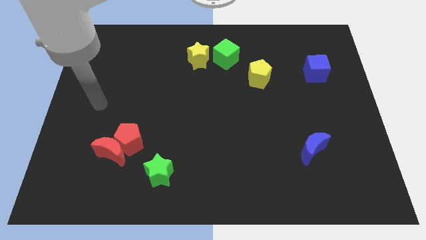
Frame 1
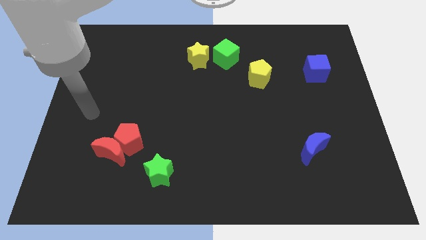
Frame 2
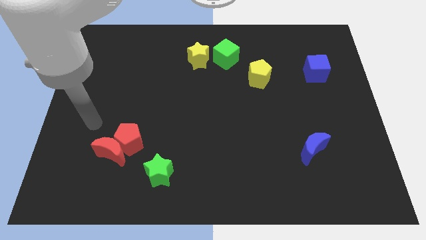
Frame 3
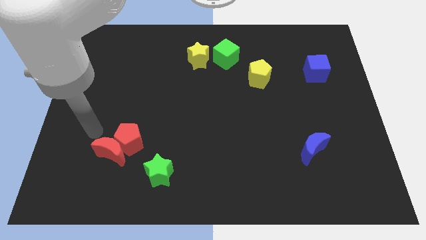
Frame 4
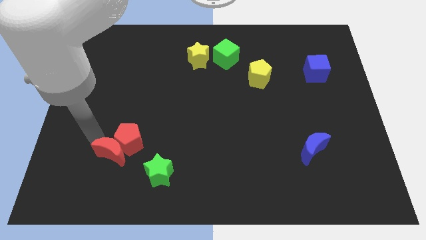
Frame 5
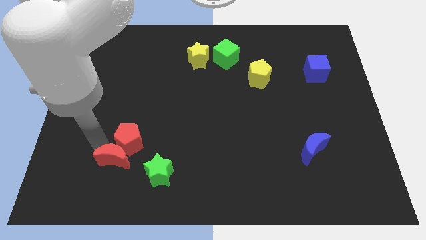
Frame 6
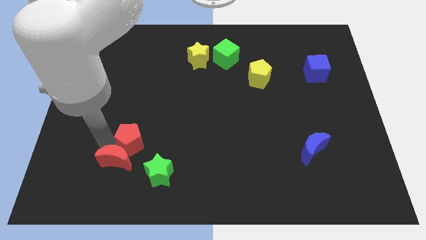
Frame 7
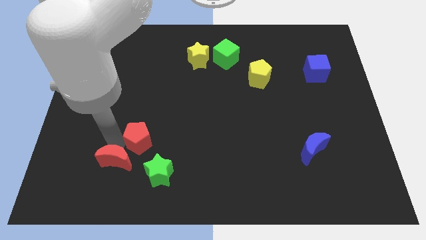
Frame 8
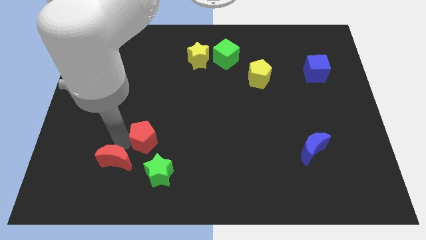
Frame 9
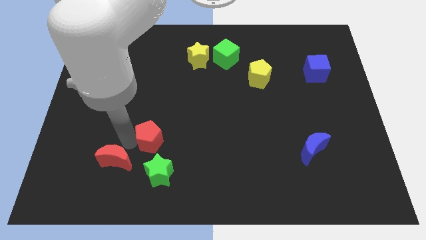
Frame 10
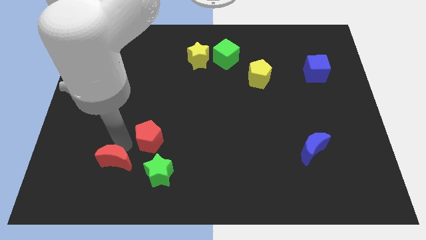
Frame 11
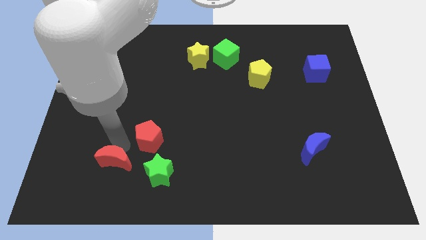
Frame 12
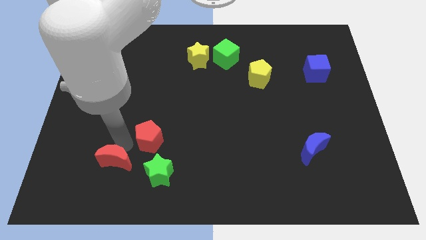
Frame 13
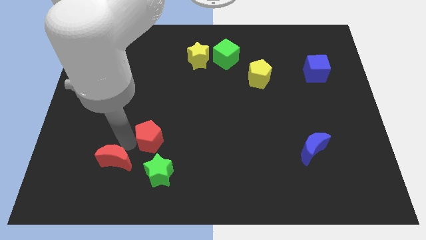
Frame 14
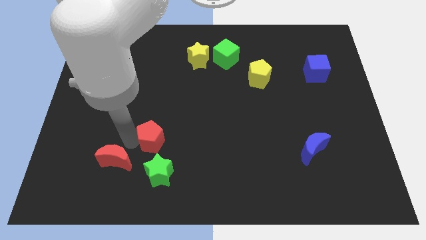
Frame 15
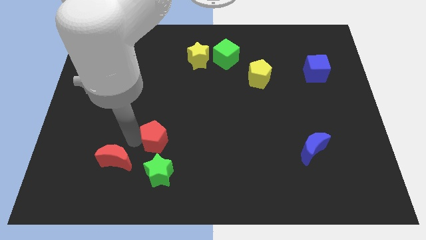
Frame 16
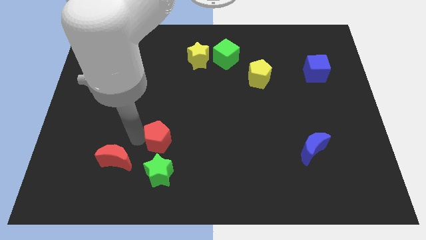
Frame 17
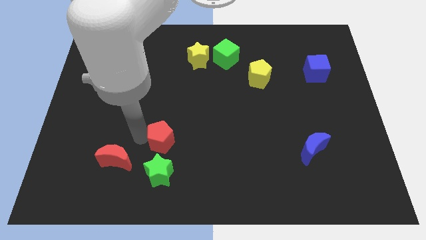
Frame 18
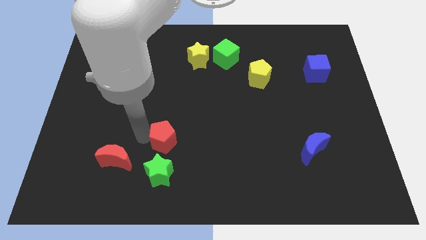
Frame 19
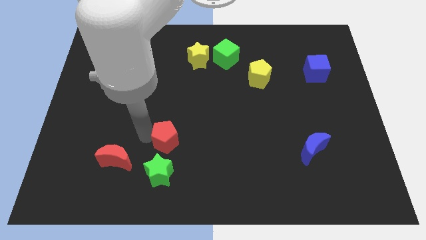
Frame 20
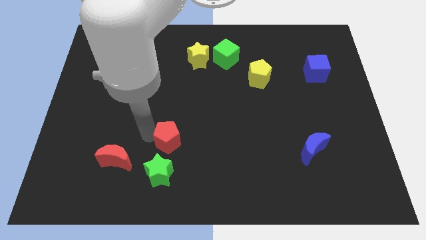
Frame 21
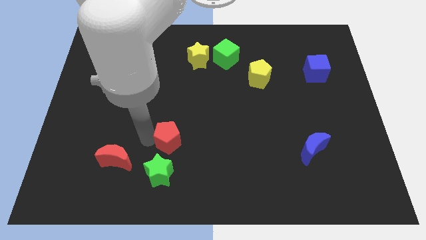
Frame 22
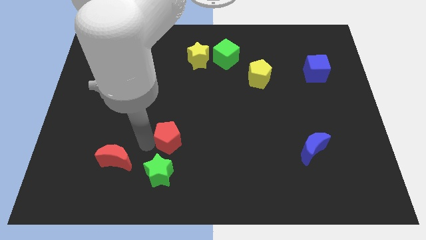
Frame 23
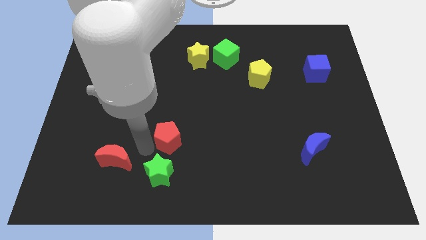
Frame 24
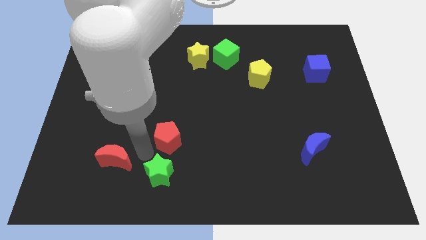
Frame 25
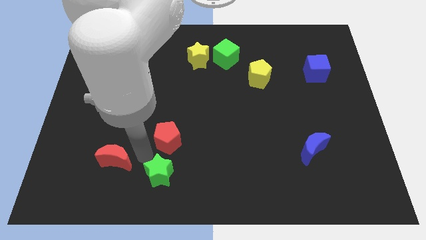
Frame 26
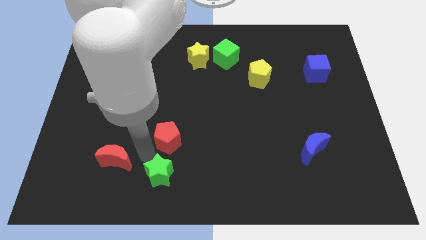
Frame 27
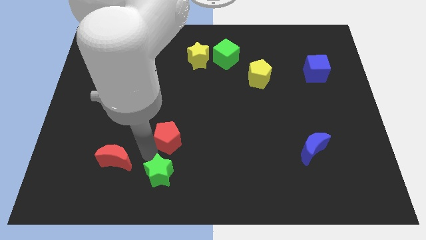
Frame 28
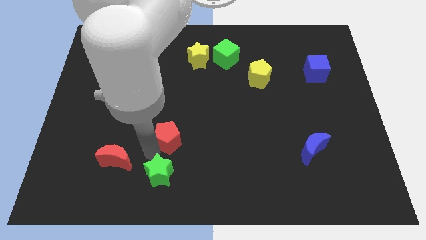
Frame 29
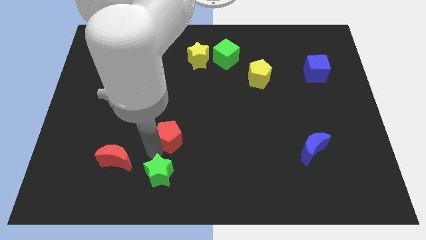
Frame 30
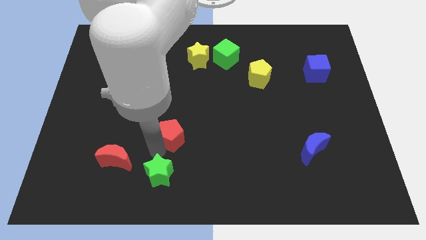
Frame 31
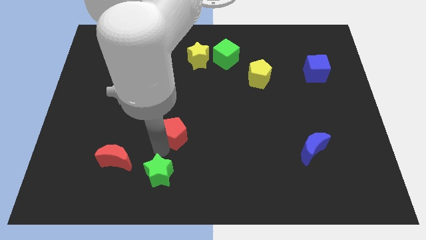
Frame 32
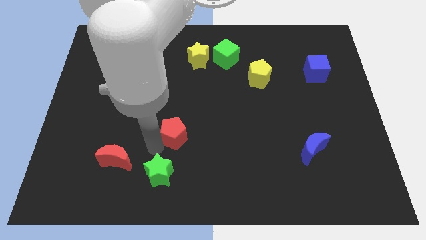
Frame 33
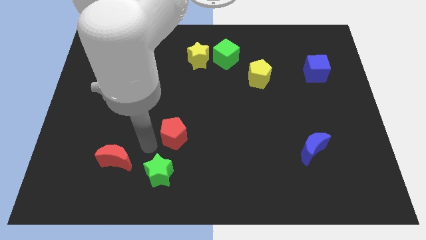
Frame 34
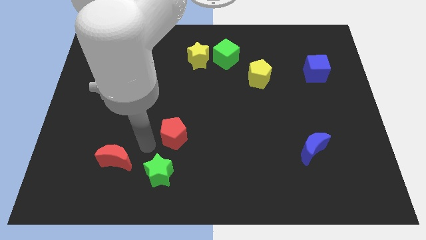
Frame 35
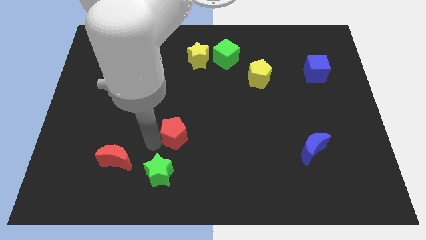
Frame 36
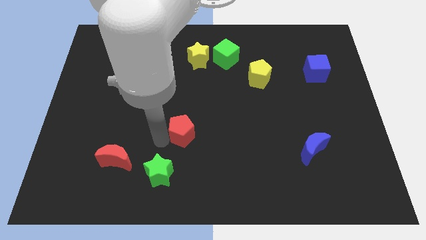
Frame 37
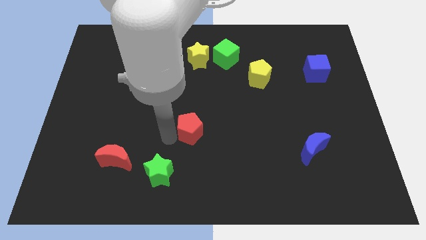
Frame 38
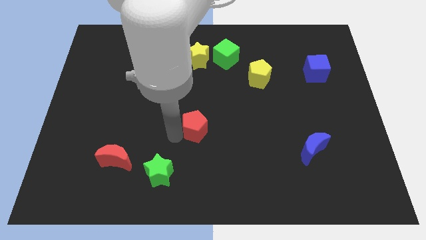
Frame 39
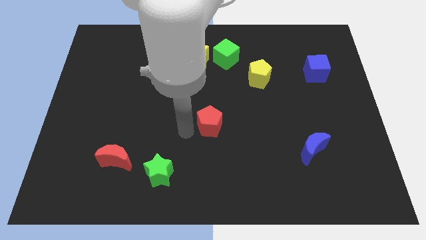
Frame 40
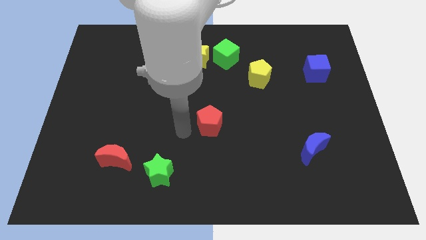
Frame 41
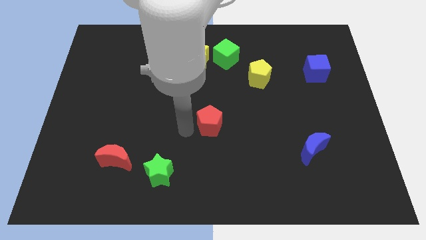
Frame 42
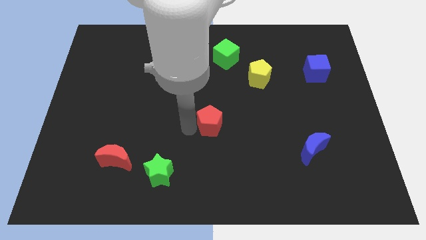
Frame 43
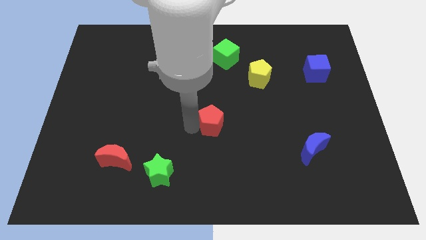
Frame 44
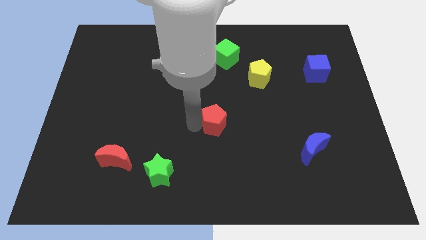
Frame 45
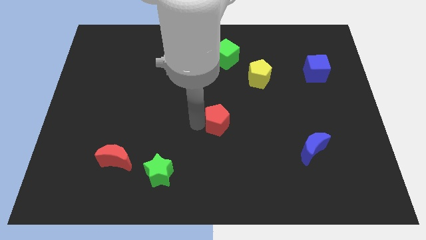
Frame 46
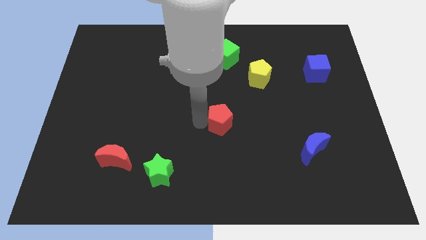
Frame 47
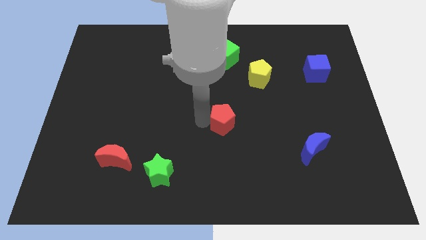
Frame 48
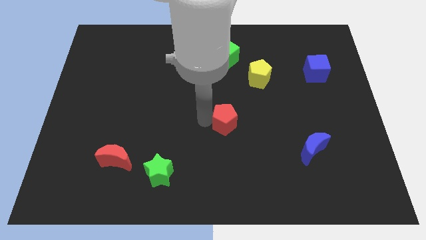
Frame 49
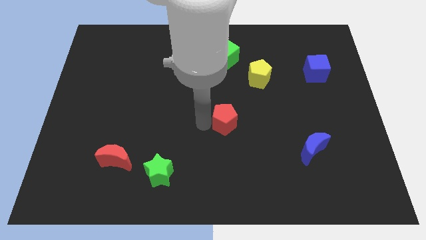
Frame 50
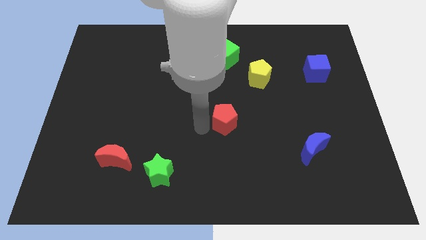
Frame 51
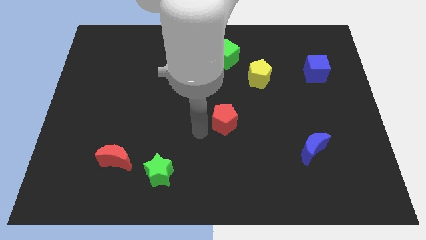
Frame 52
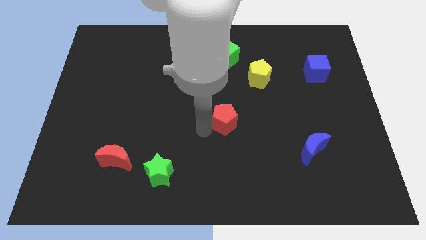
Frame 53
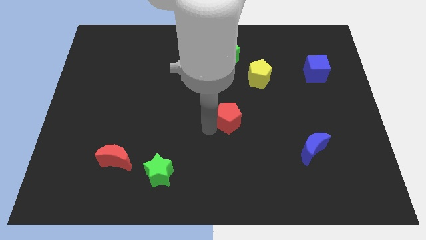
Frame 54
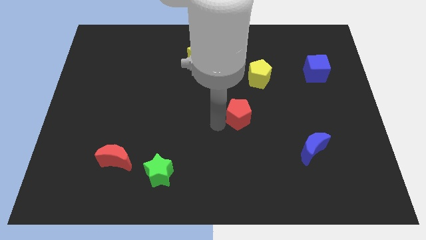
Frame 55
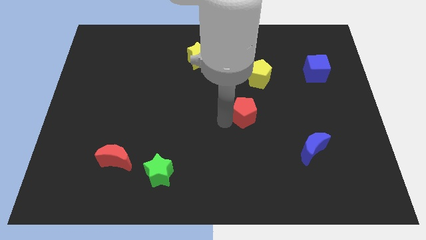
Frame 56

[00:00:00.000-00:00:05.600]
push the red pentagon to the bottom of the yellow pentagon

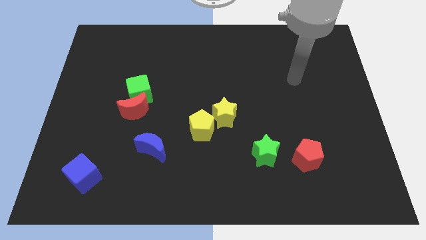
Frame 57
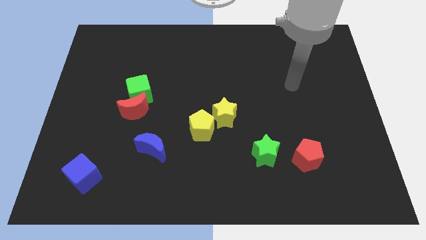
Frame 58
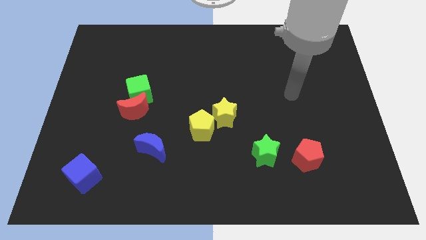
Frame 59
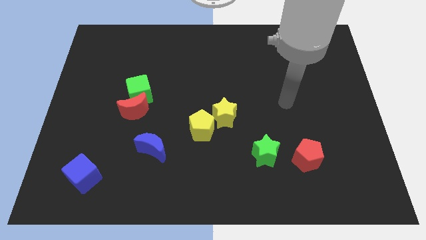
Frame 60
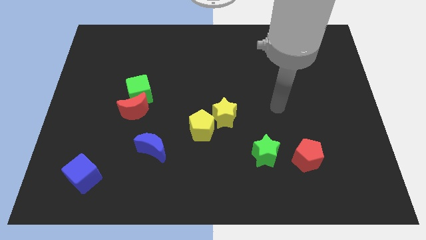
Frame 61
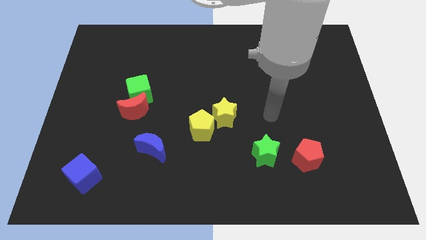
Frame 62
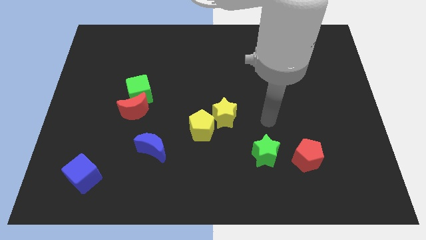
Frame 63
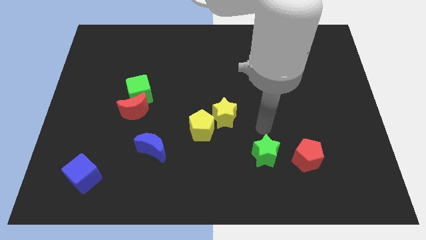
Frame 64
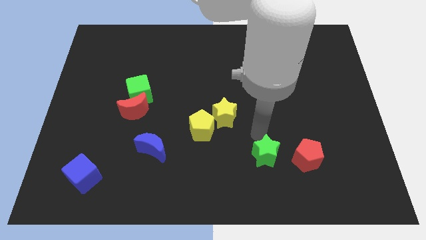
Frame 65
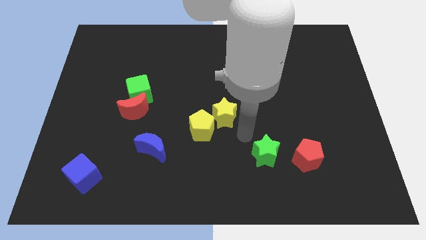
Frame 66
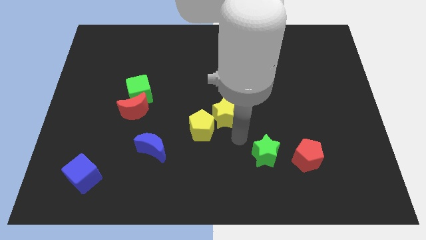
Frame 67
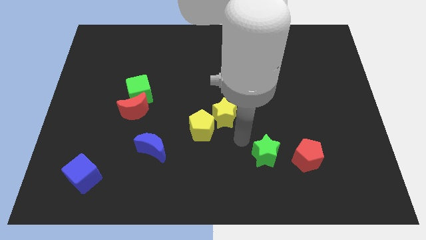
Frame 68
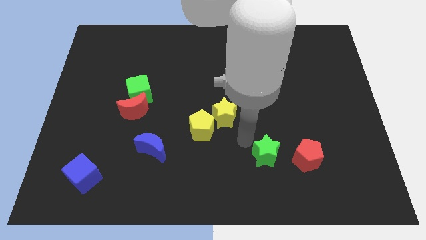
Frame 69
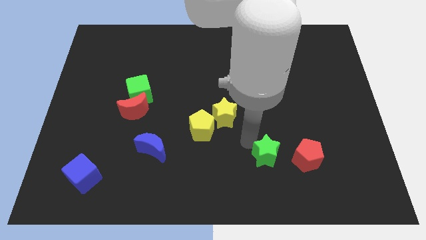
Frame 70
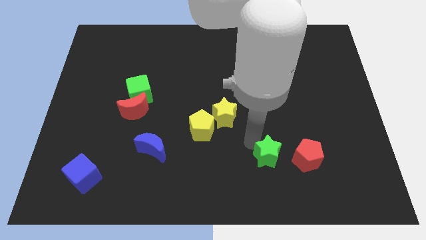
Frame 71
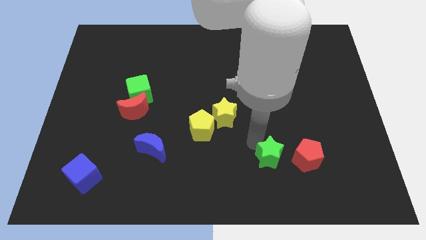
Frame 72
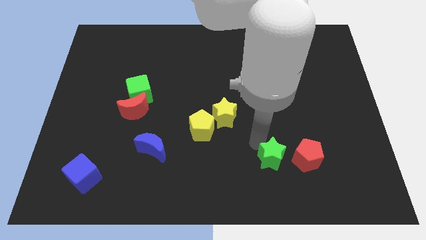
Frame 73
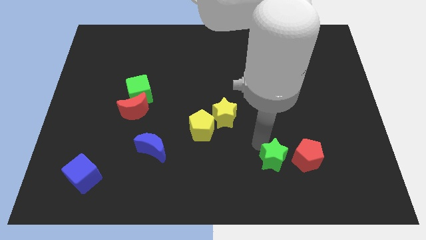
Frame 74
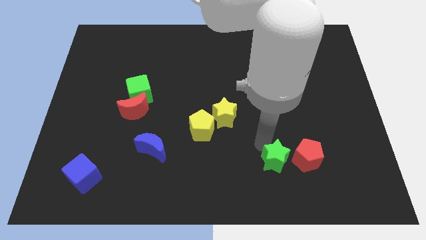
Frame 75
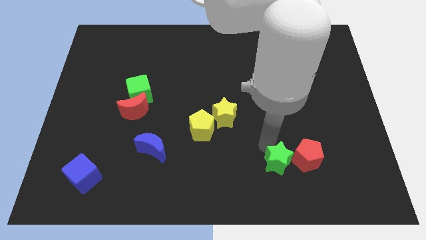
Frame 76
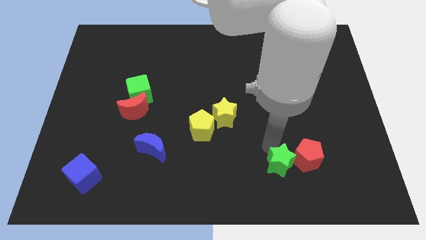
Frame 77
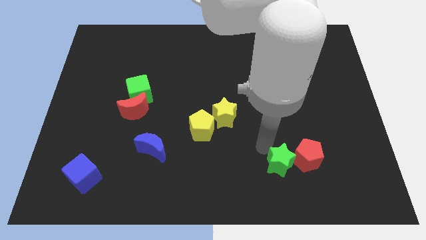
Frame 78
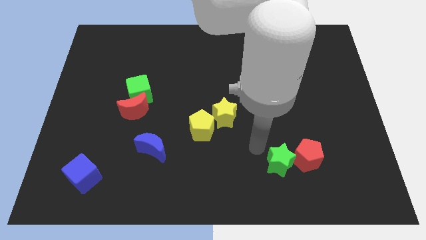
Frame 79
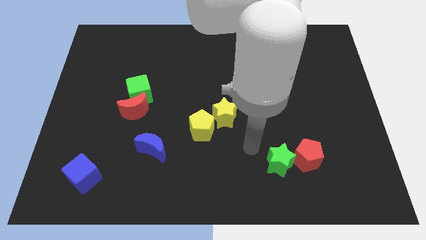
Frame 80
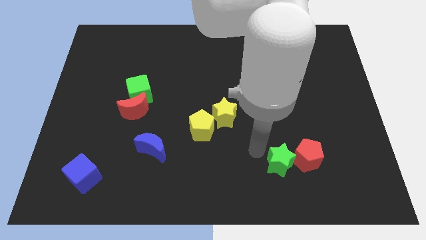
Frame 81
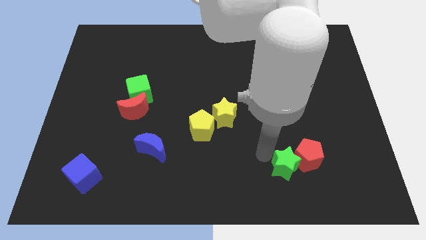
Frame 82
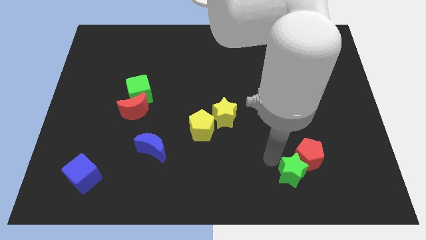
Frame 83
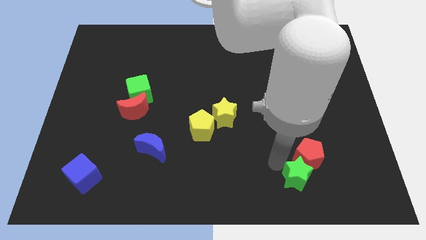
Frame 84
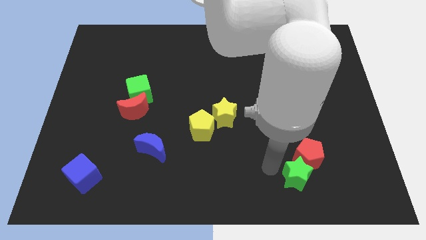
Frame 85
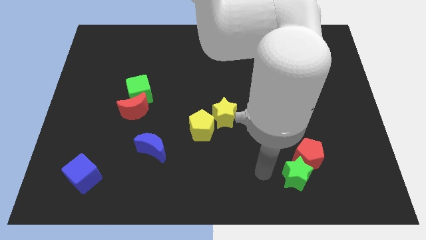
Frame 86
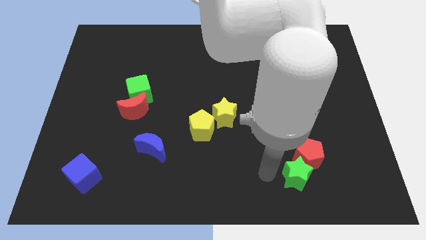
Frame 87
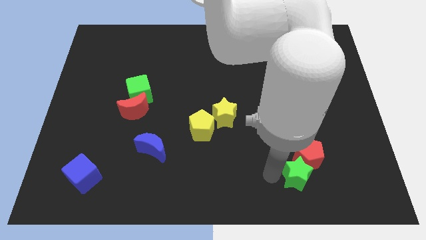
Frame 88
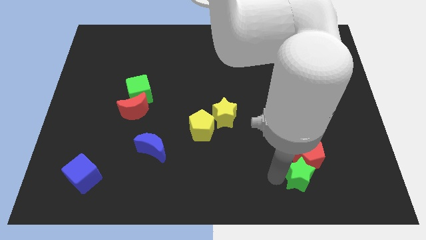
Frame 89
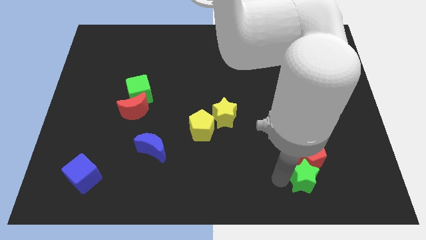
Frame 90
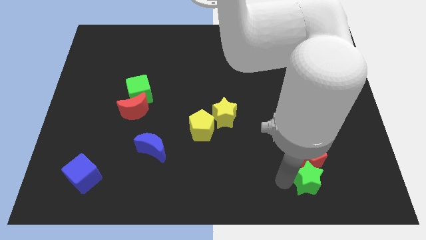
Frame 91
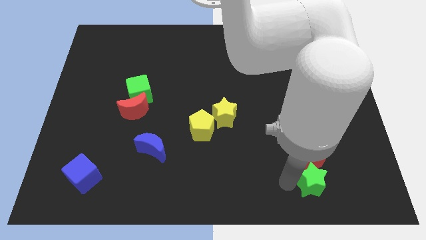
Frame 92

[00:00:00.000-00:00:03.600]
slide the green star to the bottom right side of the red pentagon
